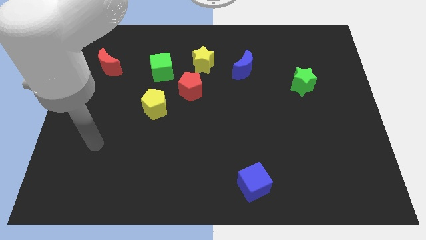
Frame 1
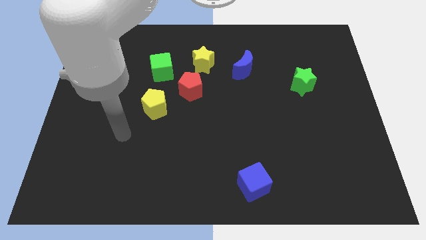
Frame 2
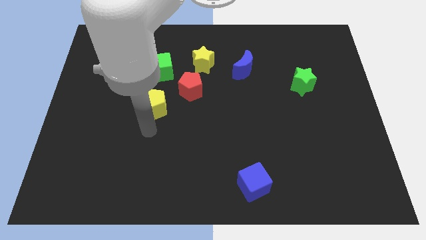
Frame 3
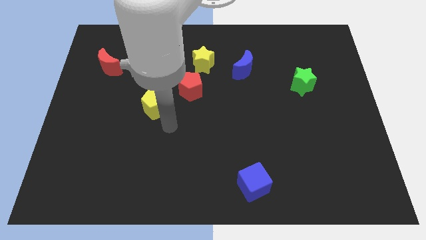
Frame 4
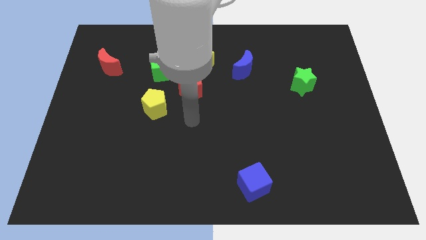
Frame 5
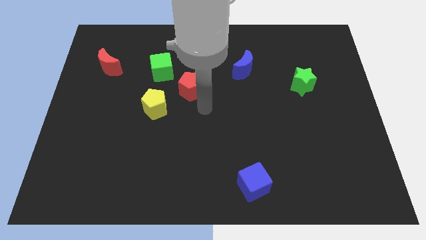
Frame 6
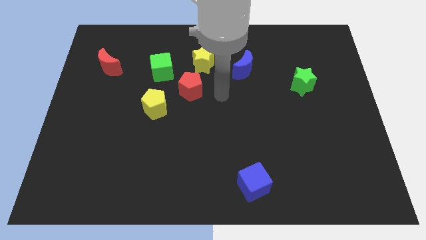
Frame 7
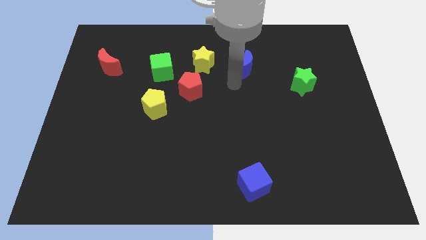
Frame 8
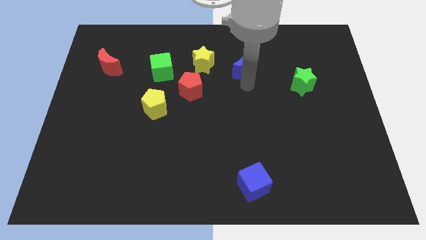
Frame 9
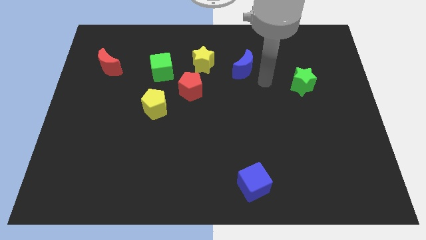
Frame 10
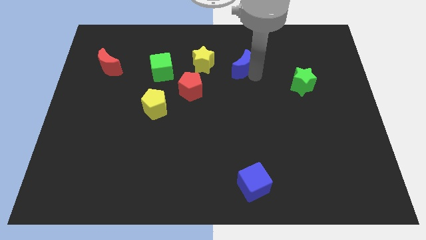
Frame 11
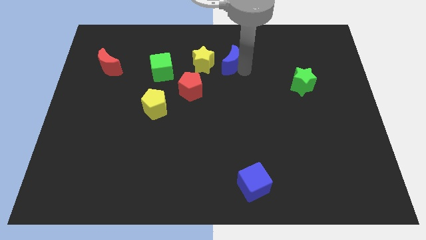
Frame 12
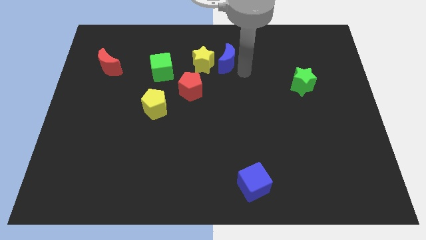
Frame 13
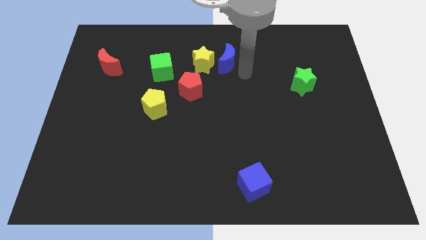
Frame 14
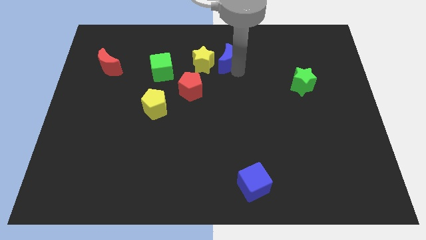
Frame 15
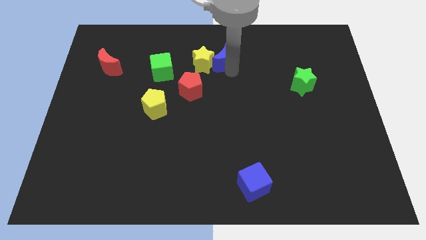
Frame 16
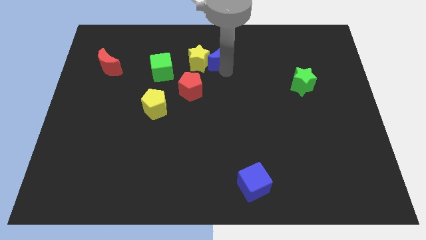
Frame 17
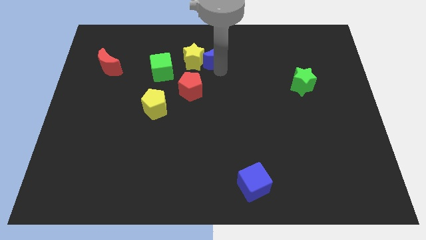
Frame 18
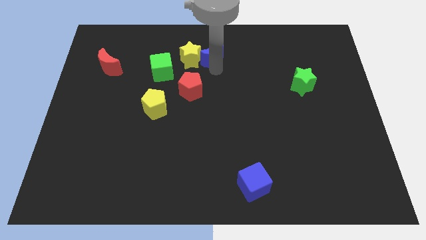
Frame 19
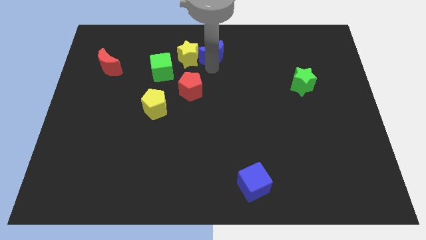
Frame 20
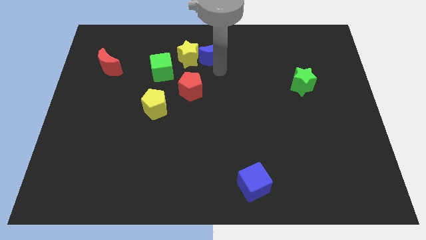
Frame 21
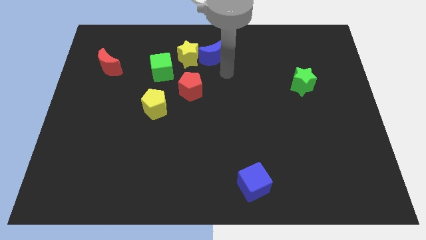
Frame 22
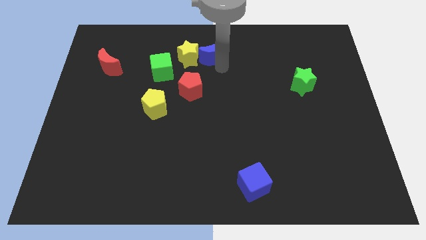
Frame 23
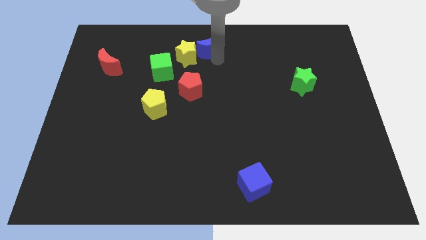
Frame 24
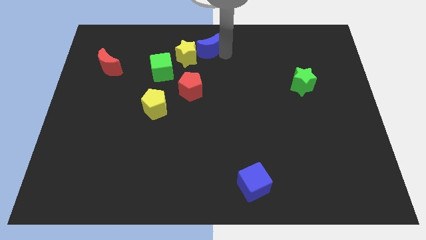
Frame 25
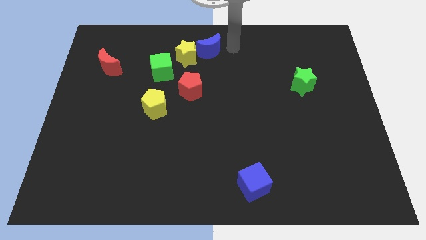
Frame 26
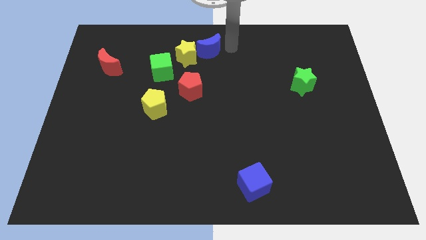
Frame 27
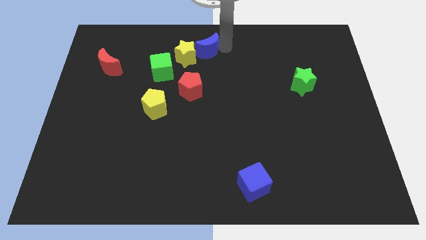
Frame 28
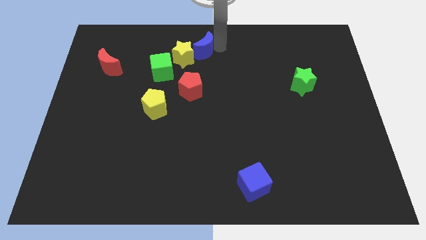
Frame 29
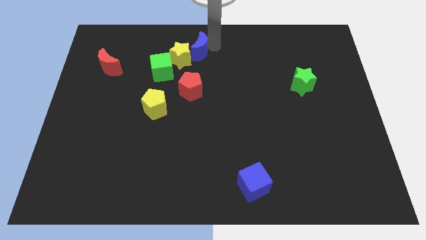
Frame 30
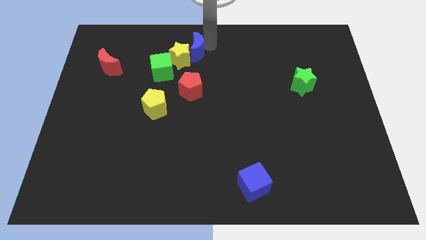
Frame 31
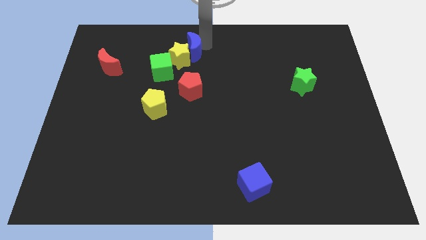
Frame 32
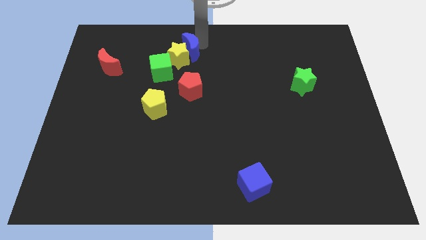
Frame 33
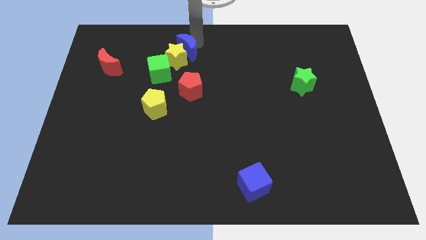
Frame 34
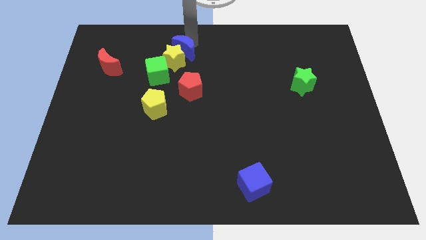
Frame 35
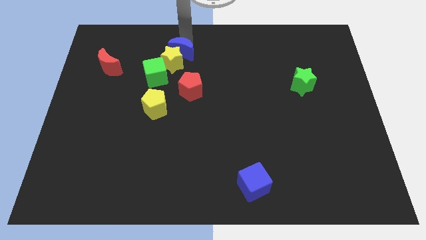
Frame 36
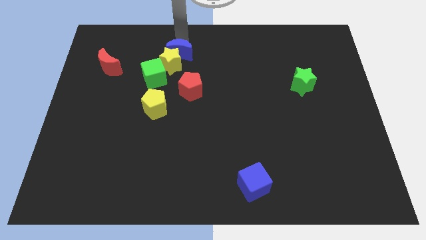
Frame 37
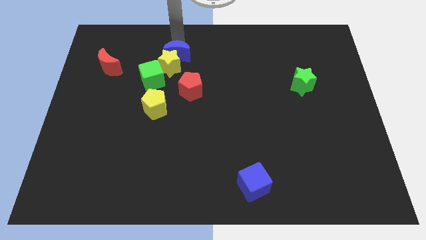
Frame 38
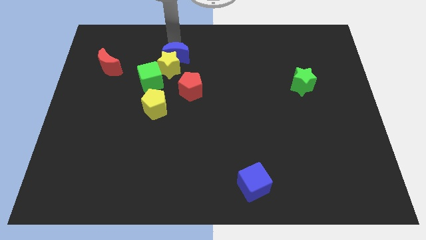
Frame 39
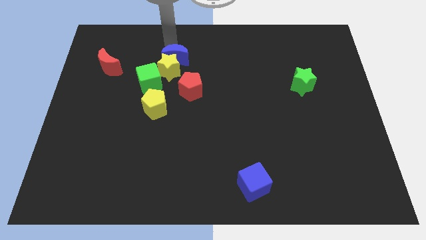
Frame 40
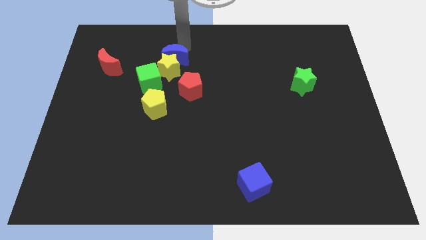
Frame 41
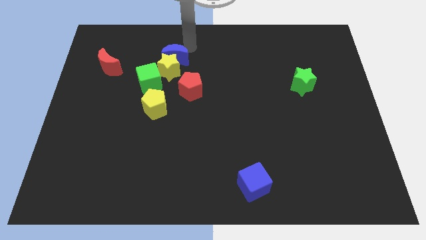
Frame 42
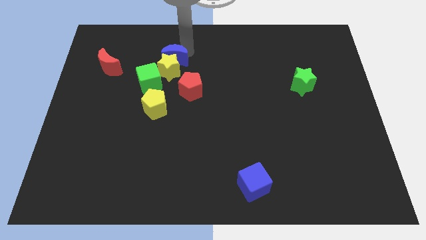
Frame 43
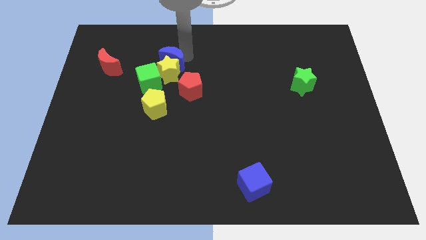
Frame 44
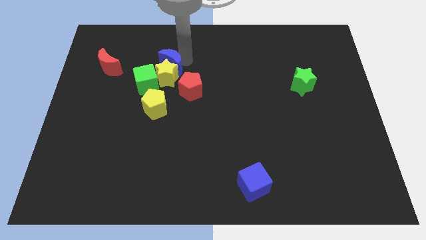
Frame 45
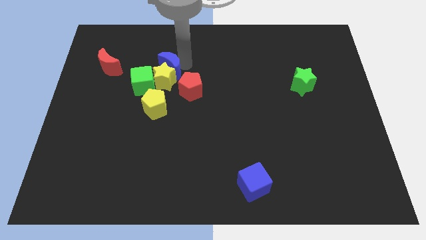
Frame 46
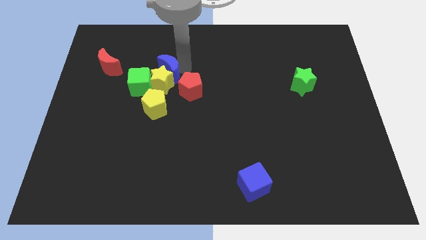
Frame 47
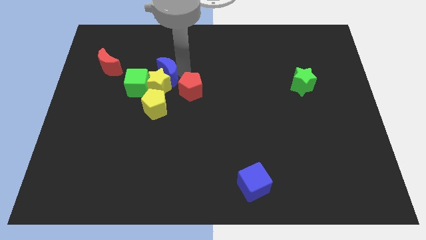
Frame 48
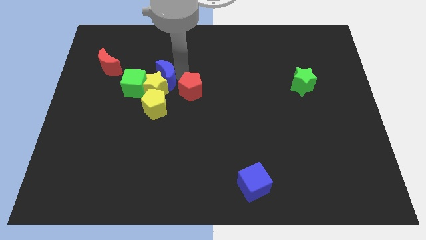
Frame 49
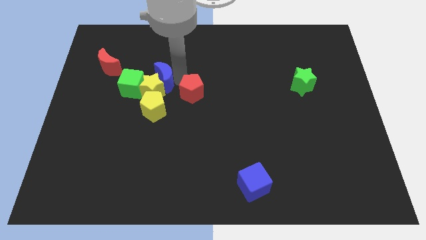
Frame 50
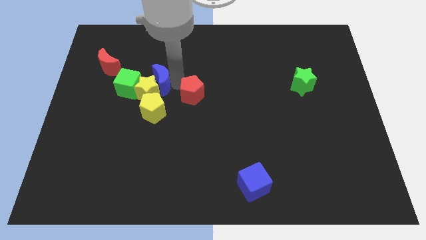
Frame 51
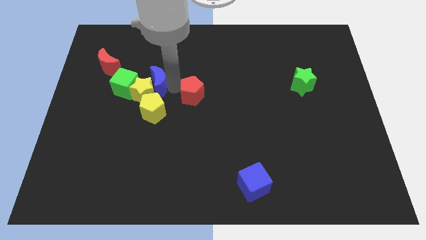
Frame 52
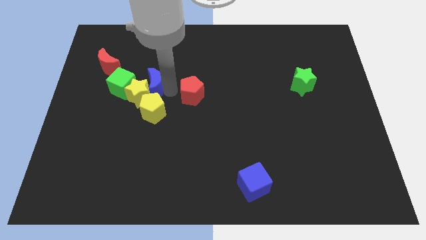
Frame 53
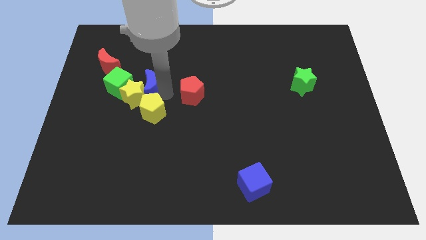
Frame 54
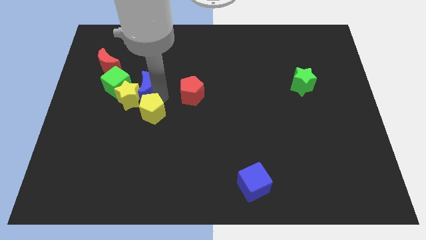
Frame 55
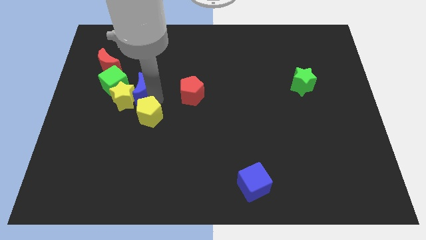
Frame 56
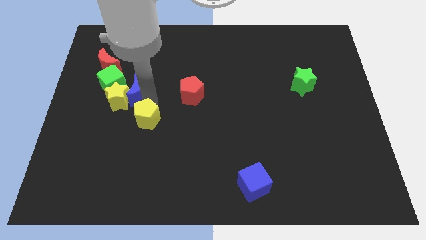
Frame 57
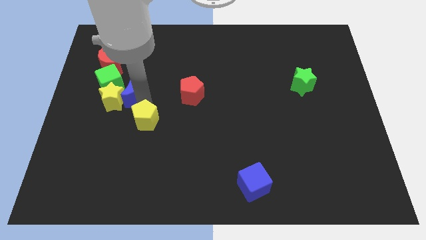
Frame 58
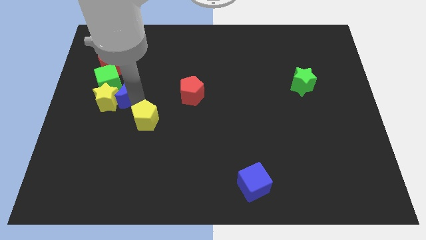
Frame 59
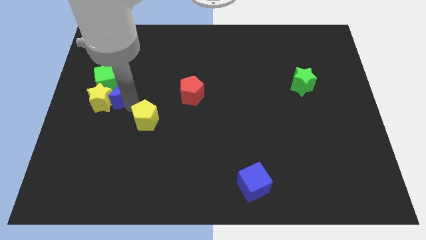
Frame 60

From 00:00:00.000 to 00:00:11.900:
put the blue moon towards the green cube
